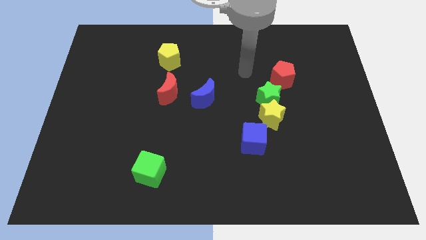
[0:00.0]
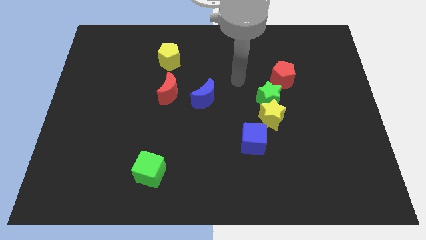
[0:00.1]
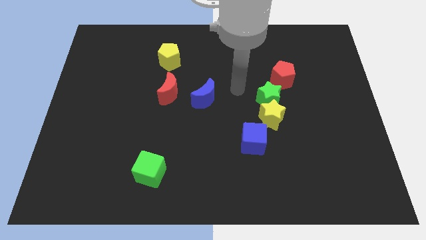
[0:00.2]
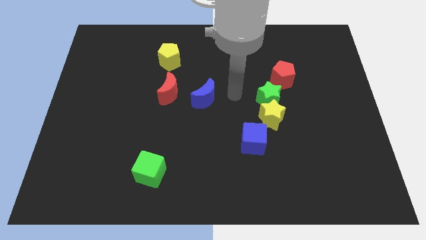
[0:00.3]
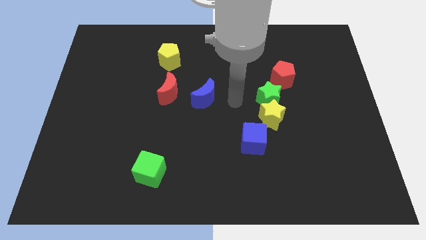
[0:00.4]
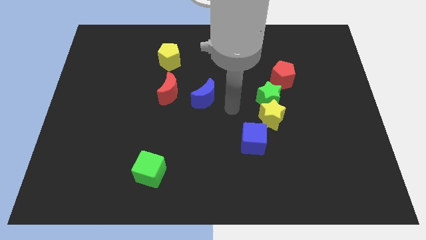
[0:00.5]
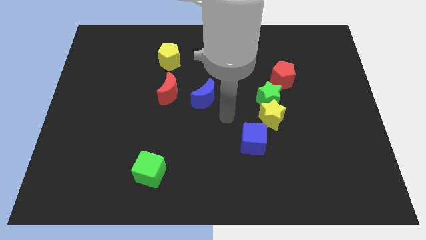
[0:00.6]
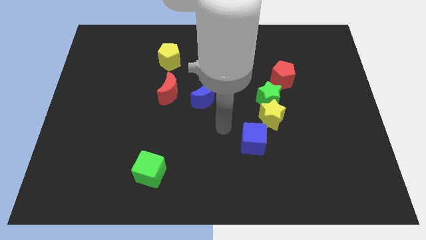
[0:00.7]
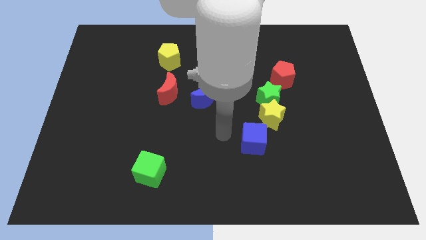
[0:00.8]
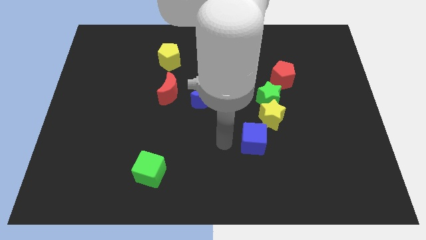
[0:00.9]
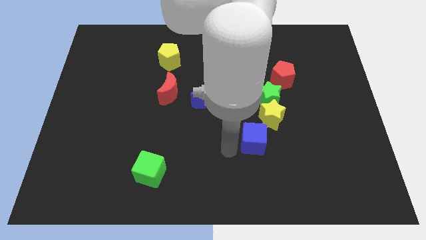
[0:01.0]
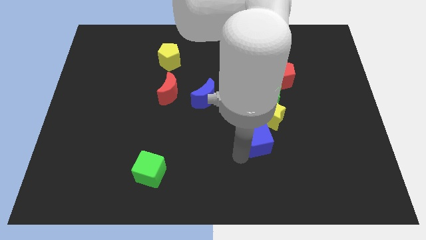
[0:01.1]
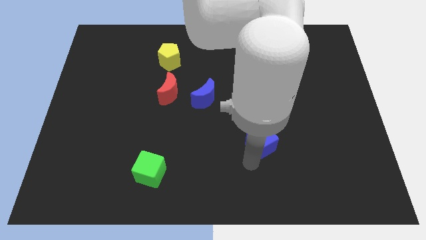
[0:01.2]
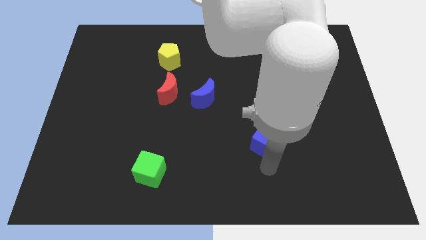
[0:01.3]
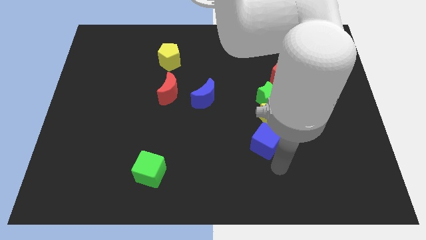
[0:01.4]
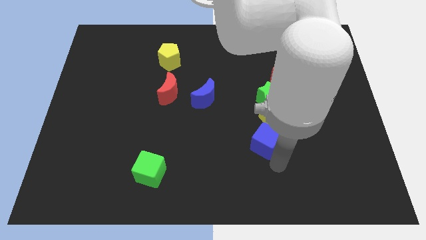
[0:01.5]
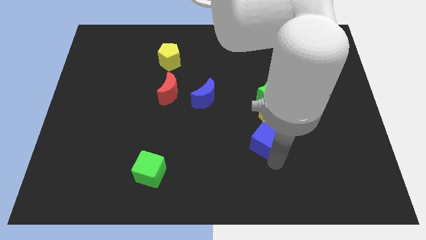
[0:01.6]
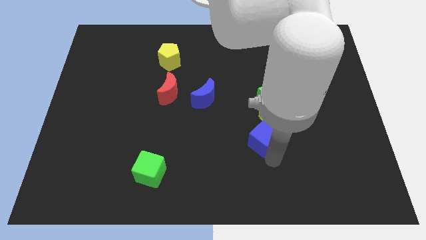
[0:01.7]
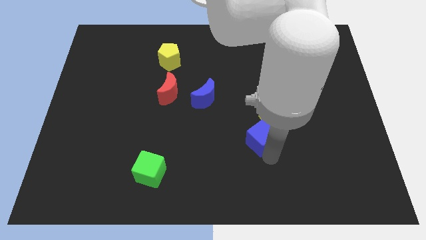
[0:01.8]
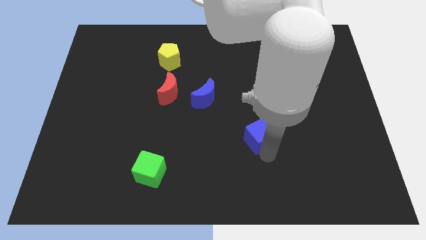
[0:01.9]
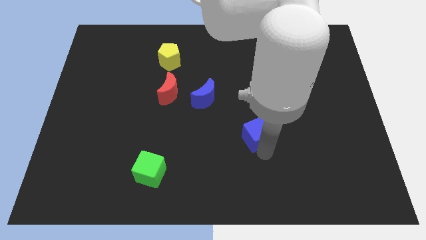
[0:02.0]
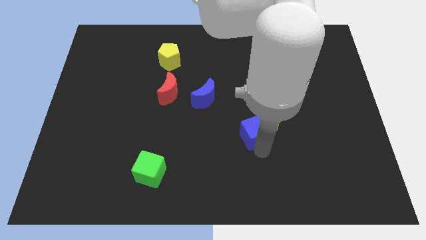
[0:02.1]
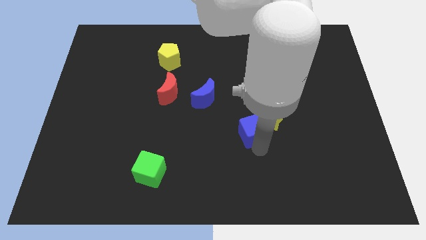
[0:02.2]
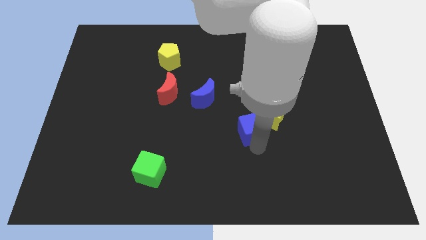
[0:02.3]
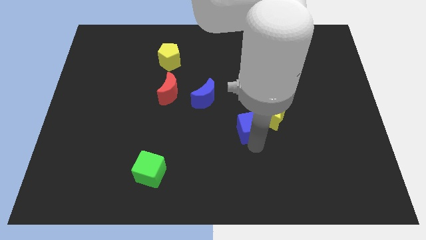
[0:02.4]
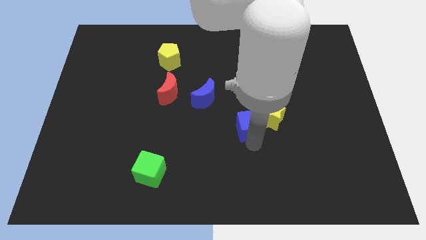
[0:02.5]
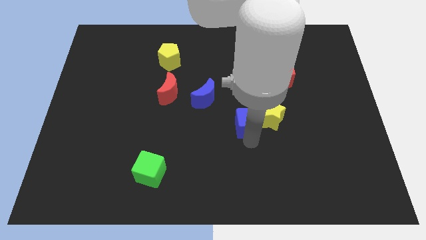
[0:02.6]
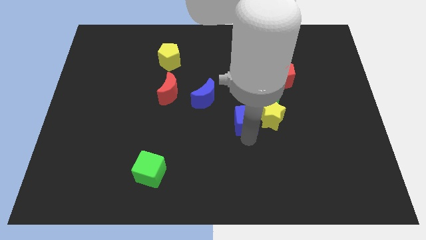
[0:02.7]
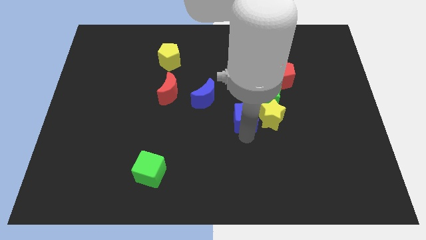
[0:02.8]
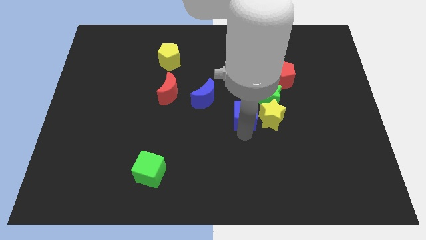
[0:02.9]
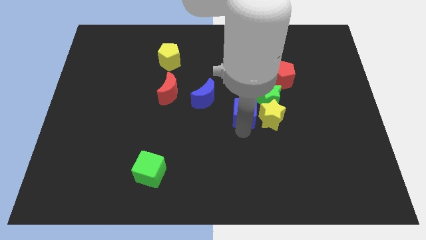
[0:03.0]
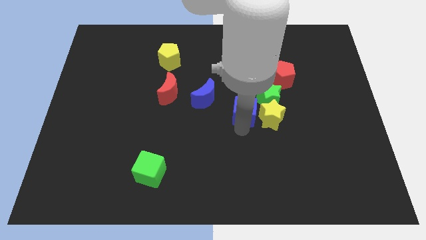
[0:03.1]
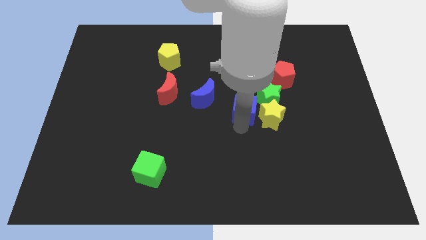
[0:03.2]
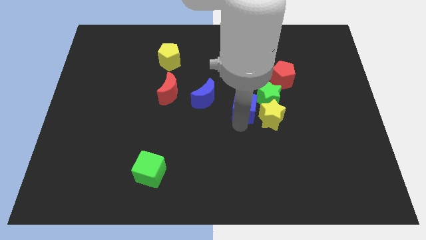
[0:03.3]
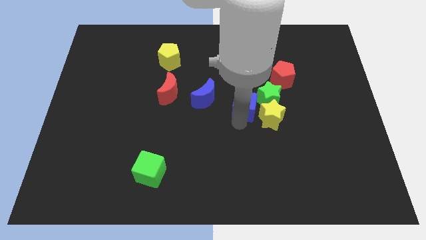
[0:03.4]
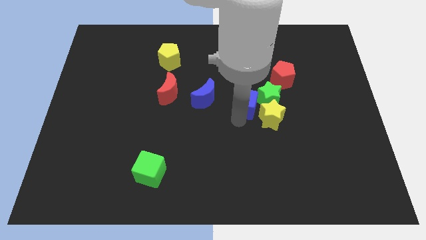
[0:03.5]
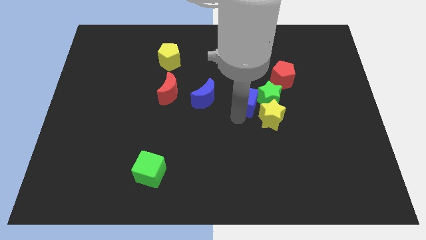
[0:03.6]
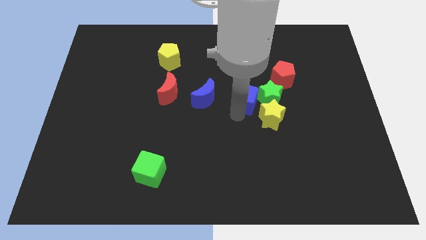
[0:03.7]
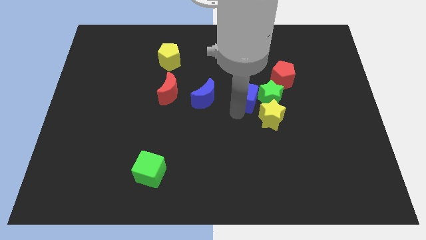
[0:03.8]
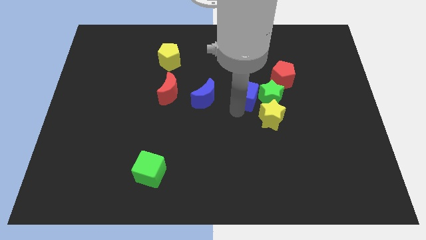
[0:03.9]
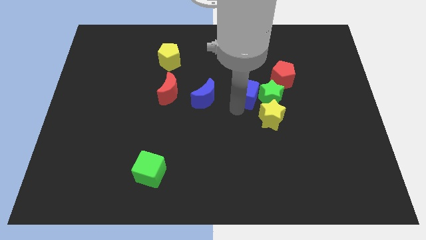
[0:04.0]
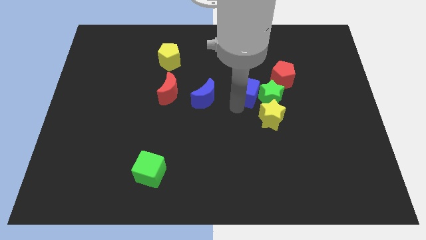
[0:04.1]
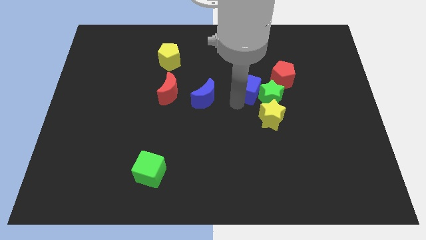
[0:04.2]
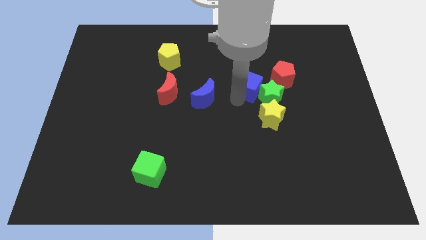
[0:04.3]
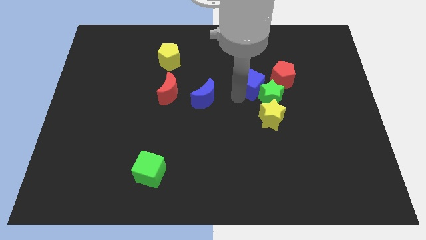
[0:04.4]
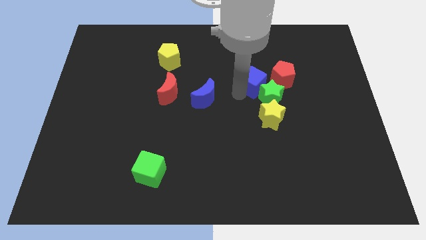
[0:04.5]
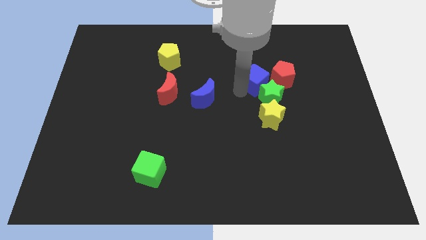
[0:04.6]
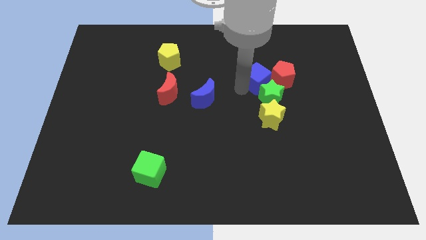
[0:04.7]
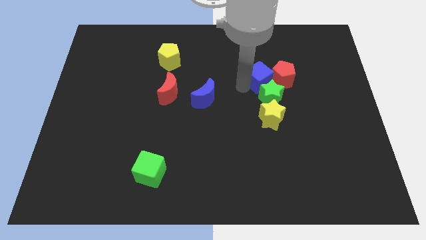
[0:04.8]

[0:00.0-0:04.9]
slide the blue cube next to the red pentagon

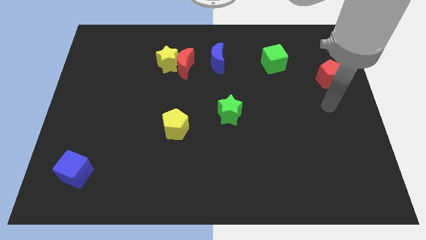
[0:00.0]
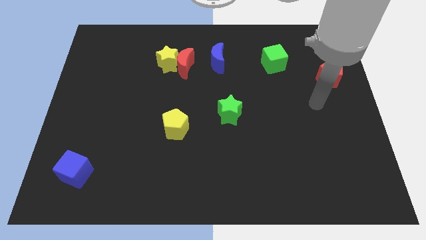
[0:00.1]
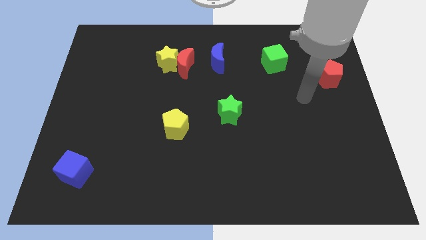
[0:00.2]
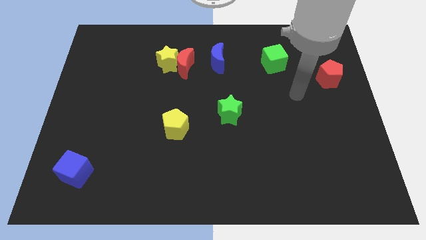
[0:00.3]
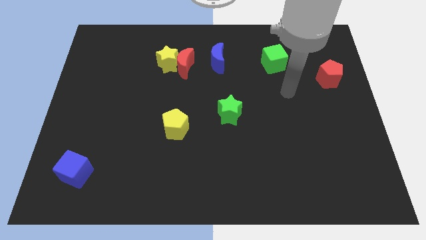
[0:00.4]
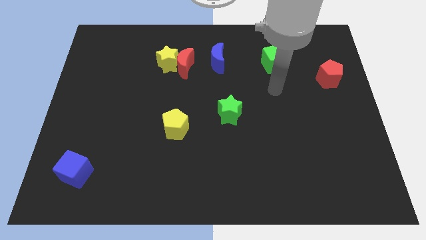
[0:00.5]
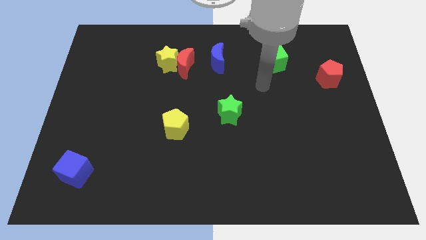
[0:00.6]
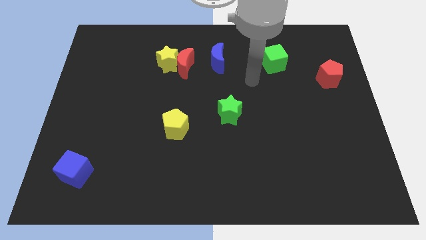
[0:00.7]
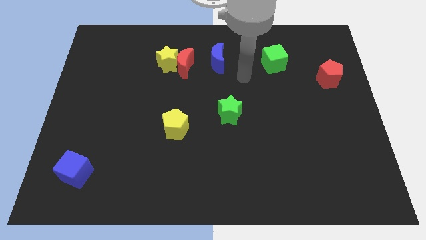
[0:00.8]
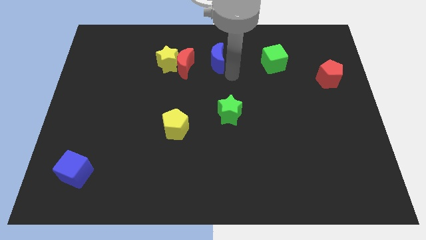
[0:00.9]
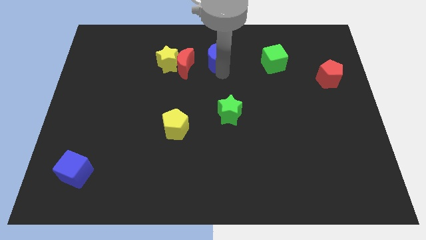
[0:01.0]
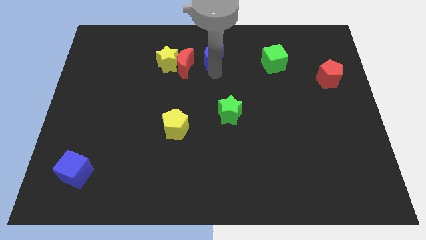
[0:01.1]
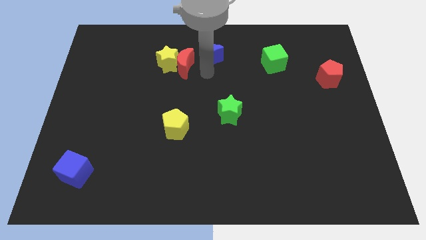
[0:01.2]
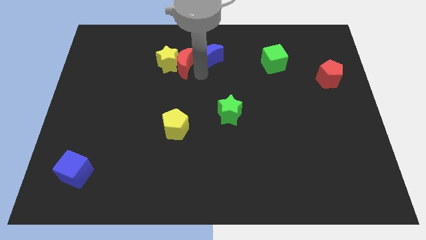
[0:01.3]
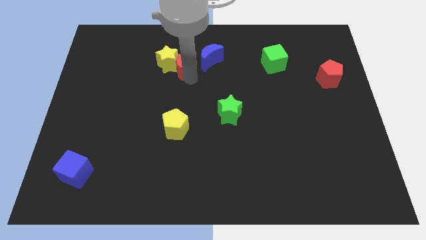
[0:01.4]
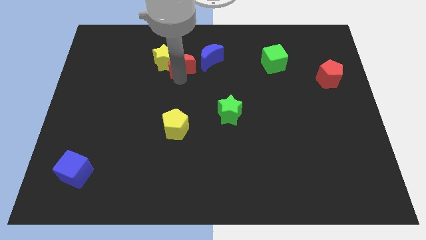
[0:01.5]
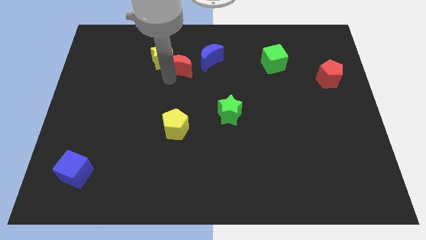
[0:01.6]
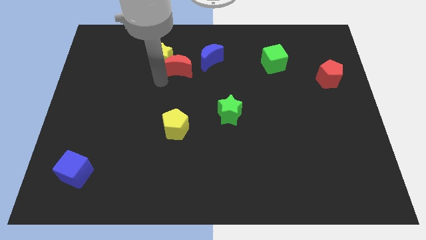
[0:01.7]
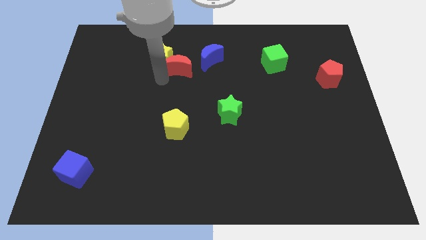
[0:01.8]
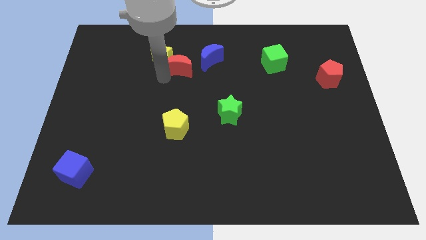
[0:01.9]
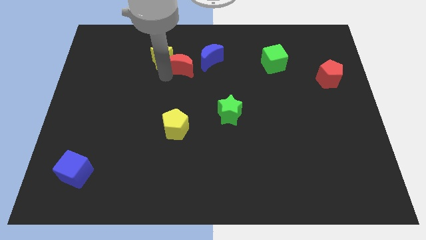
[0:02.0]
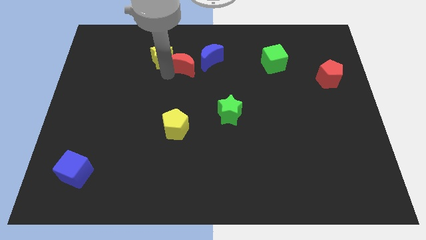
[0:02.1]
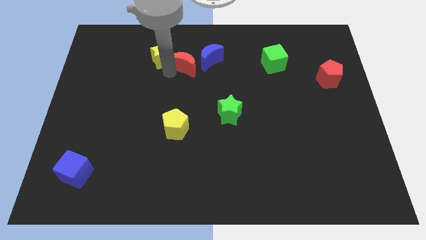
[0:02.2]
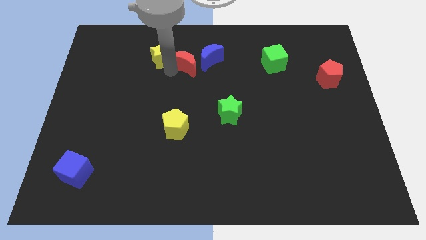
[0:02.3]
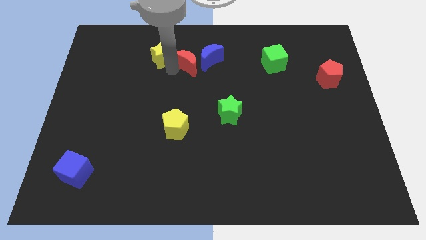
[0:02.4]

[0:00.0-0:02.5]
push the red moon towards the blue moon
